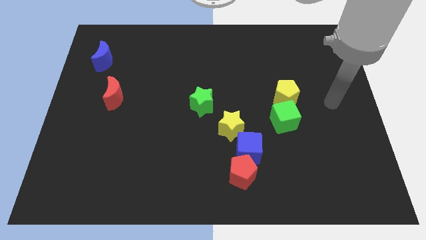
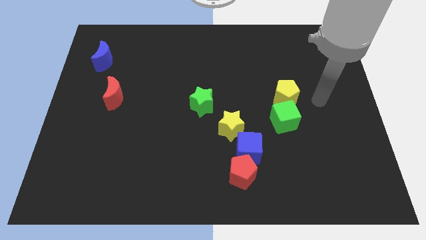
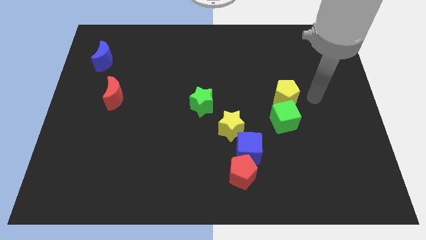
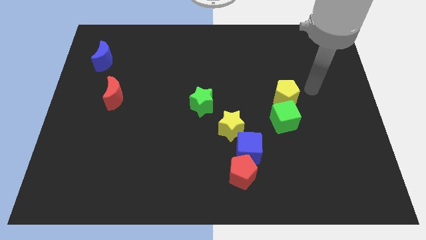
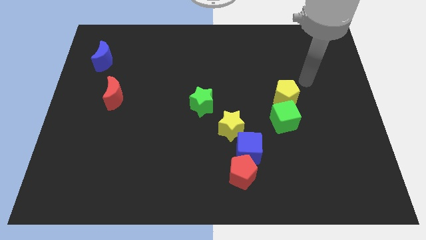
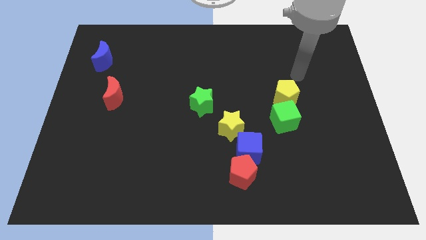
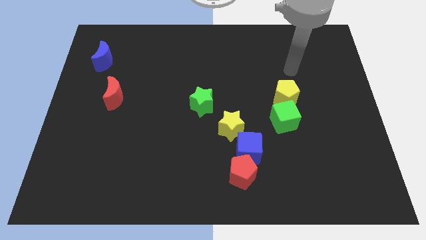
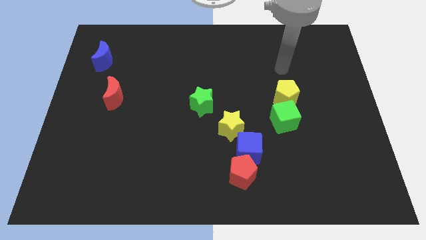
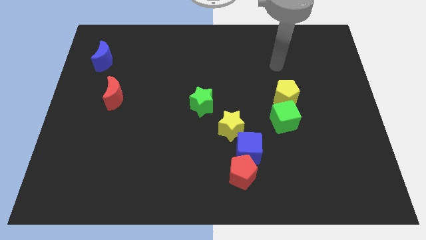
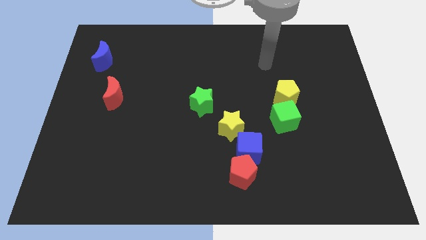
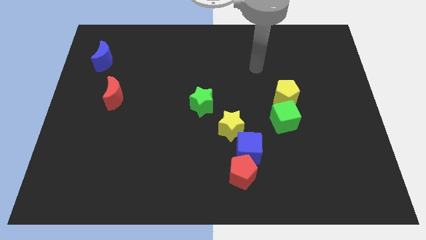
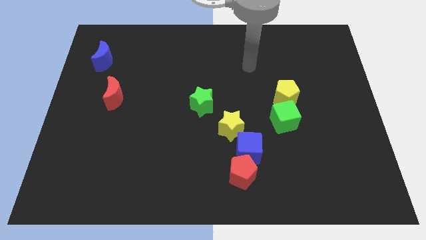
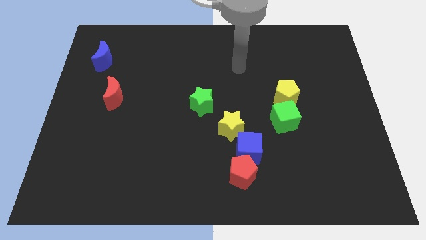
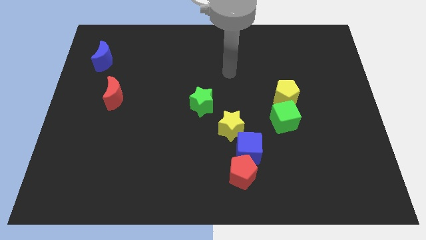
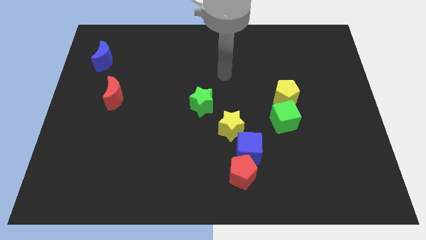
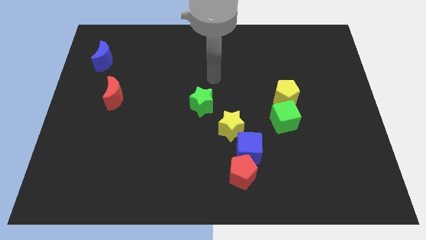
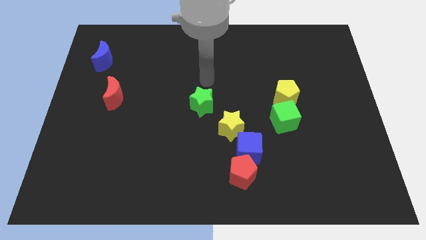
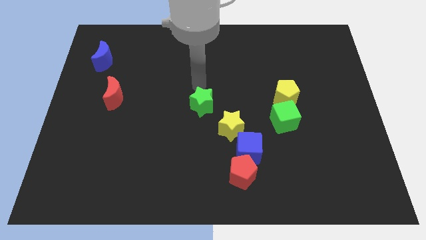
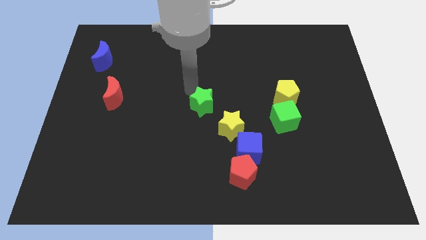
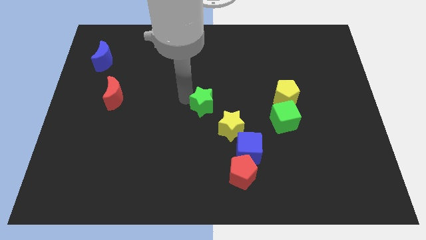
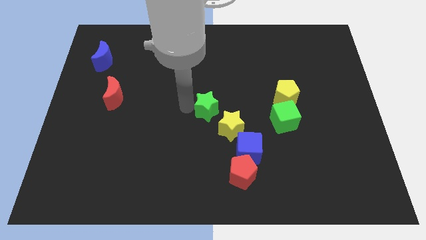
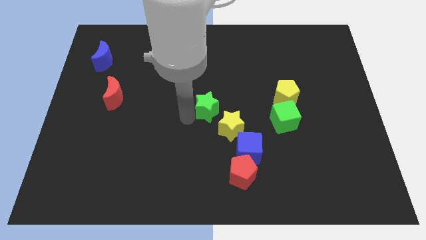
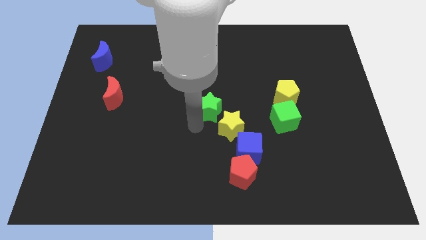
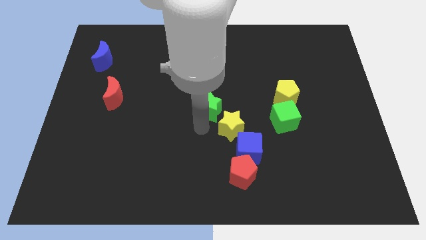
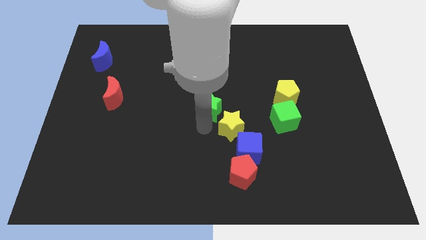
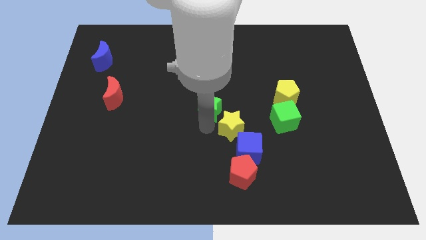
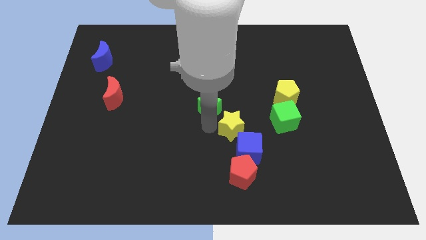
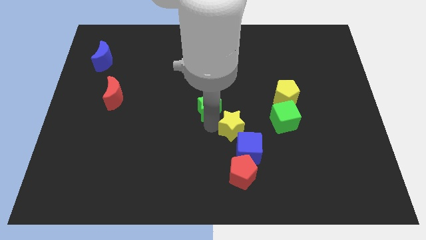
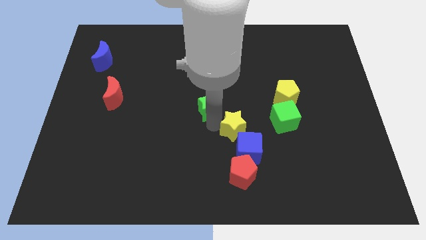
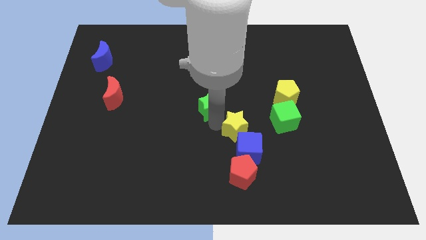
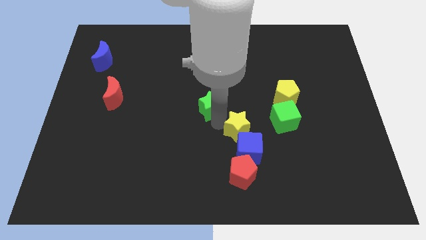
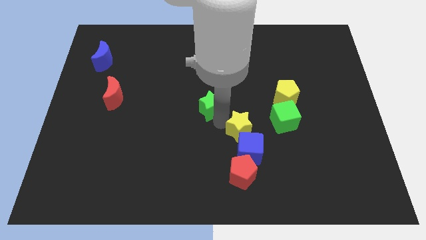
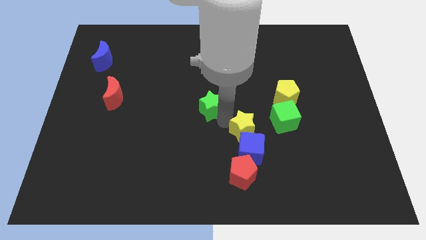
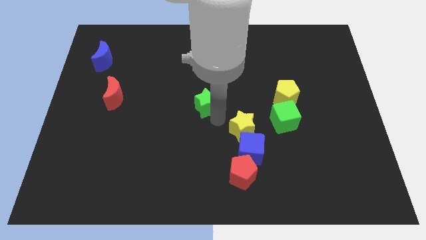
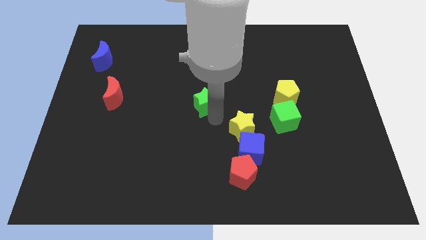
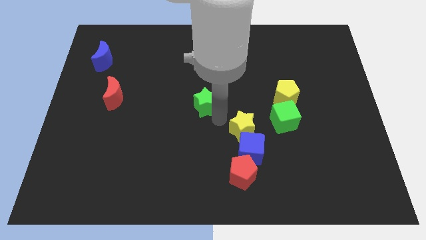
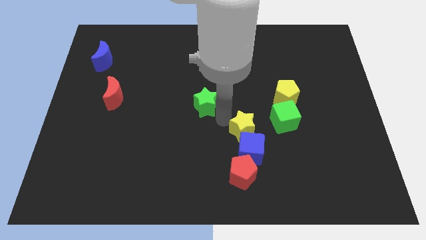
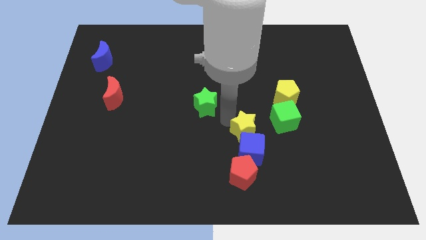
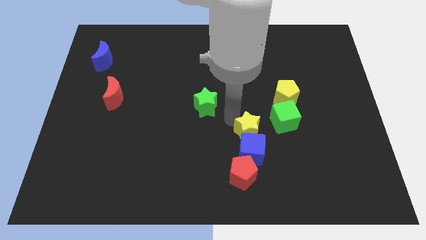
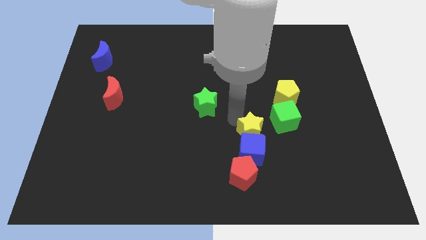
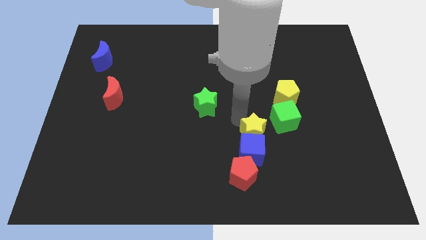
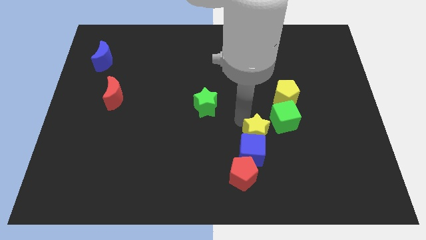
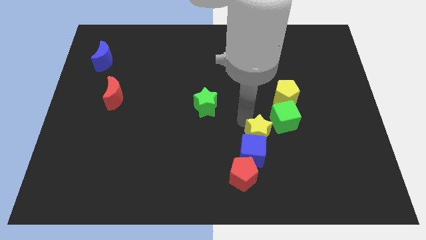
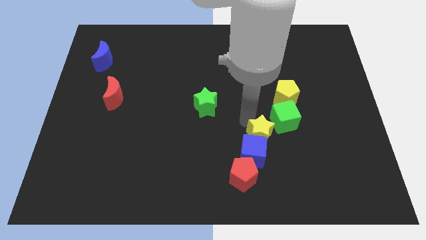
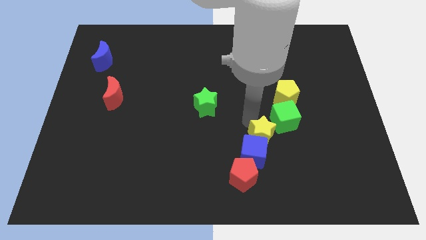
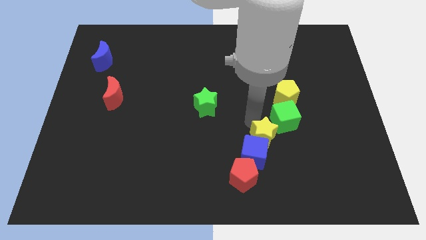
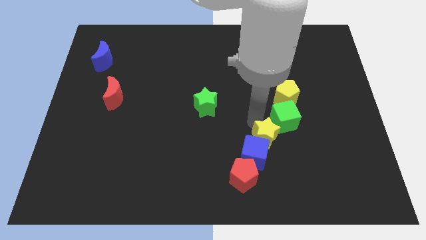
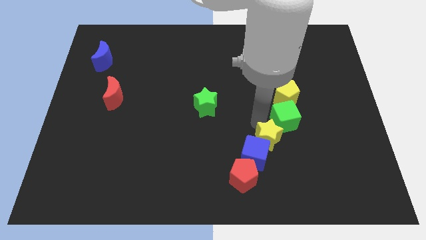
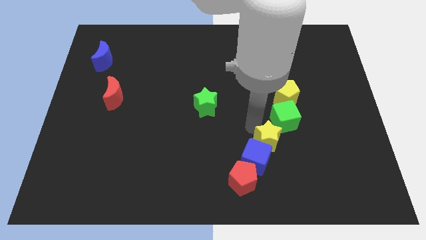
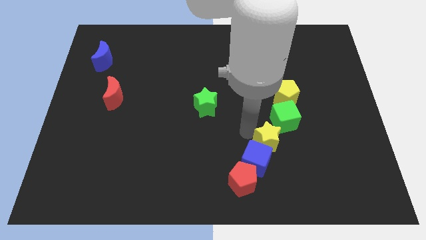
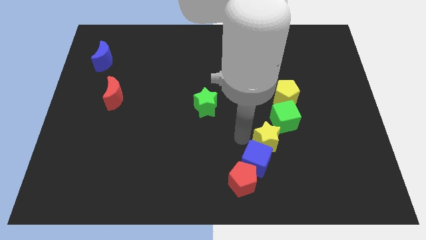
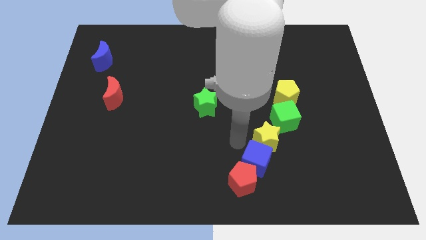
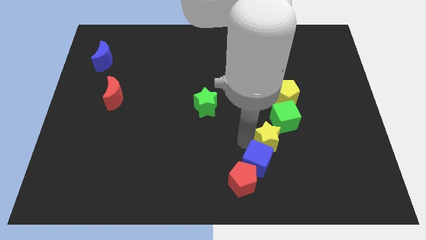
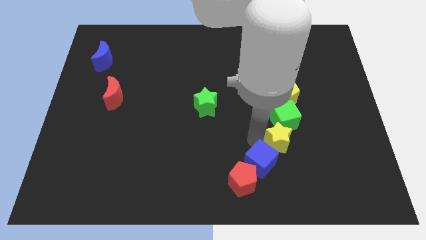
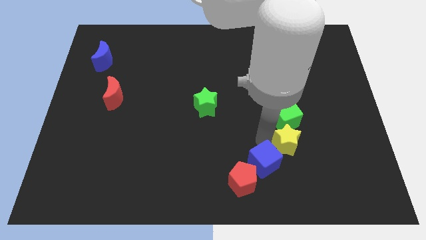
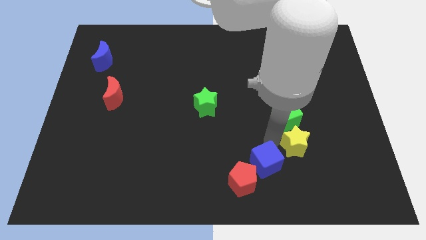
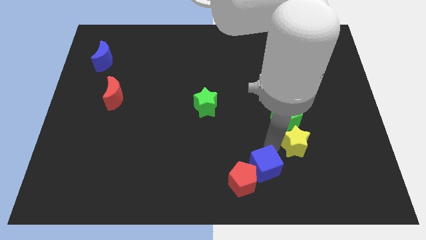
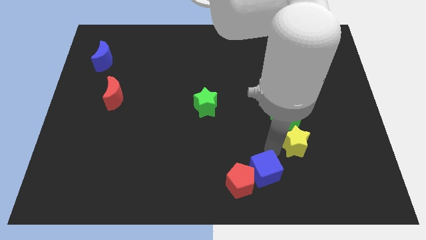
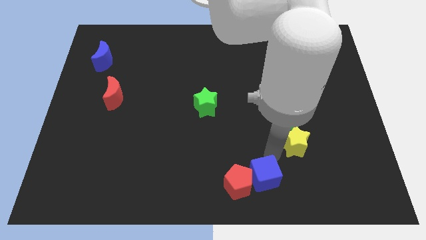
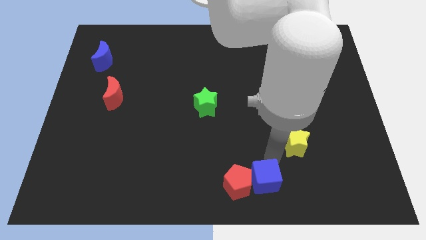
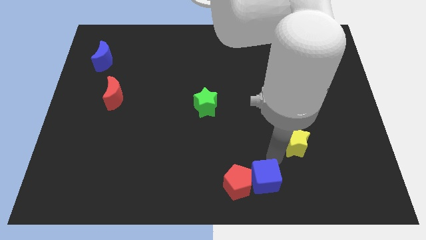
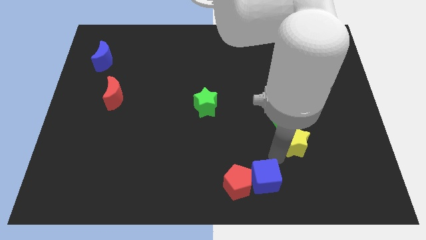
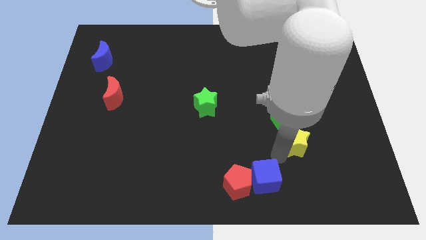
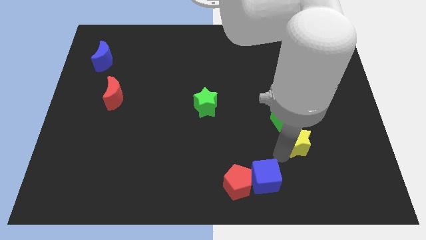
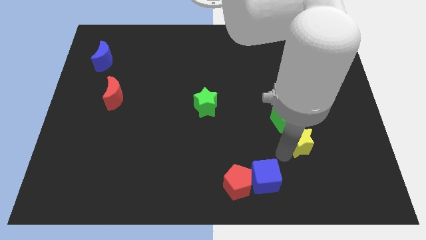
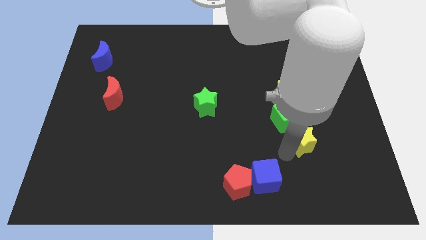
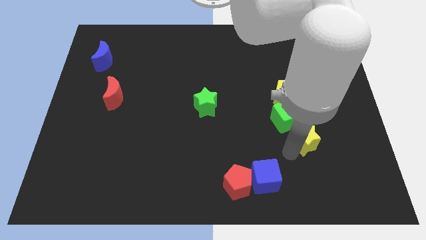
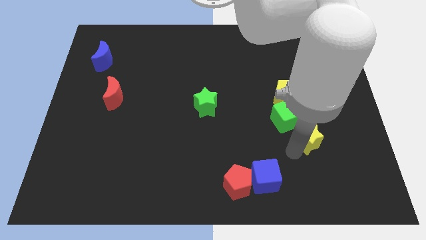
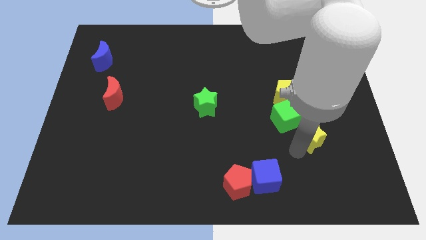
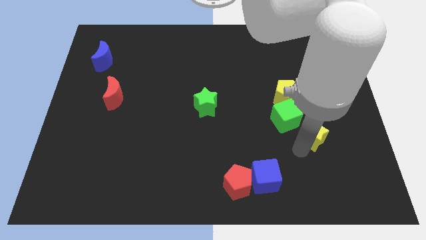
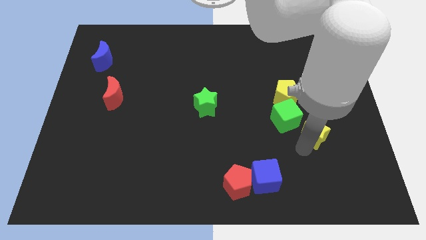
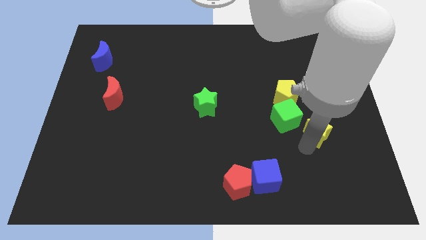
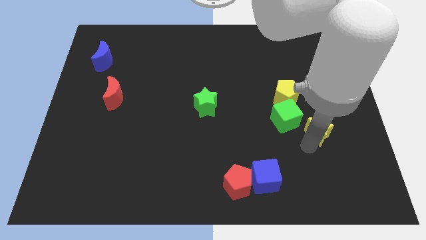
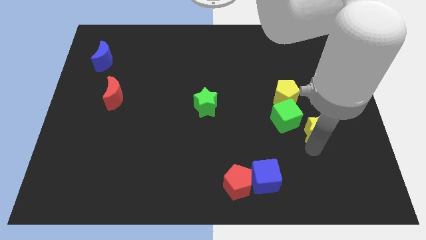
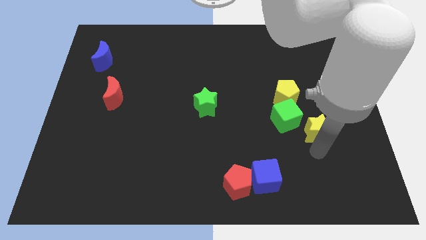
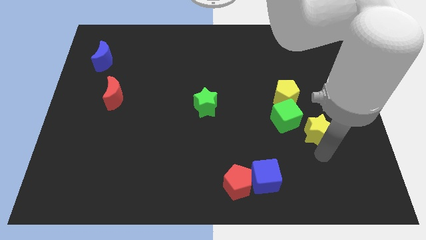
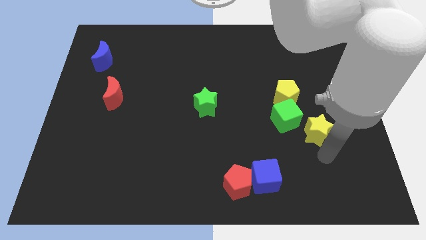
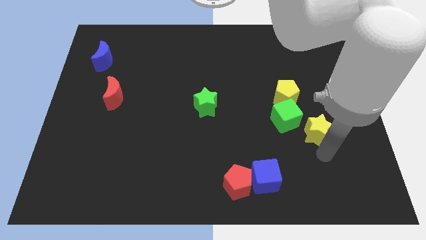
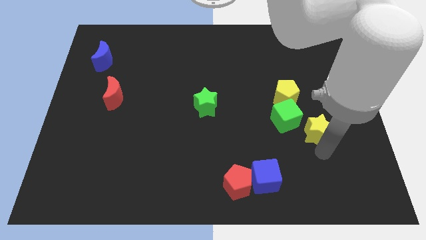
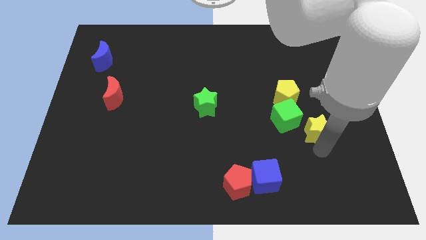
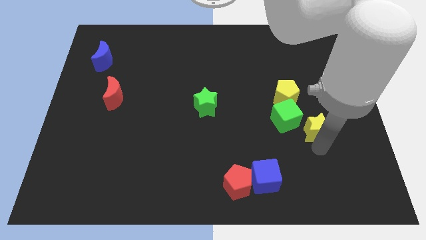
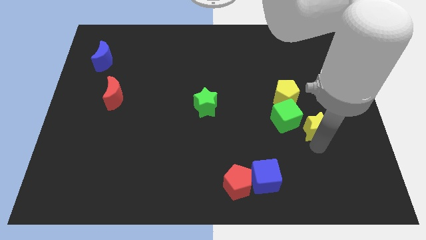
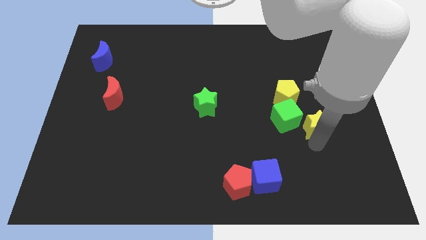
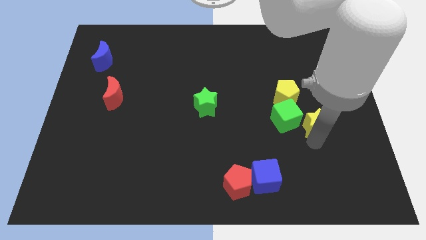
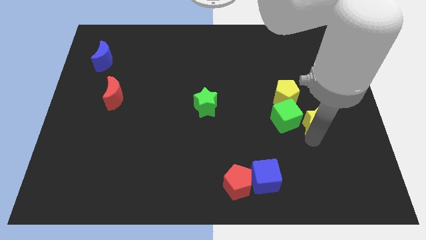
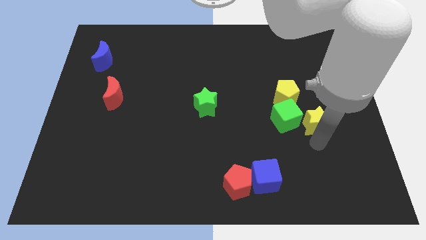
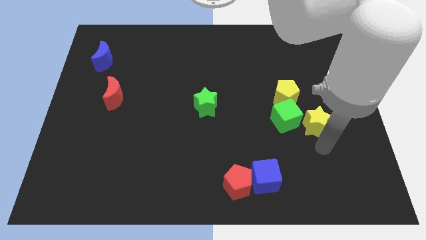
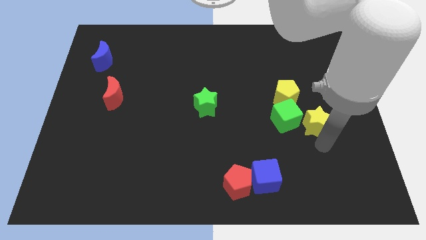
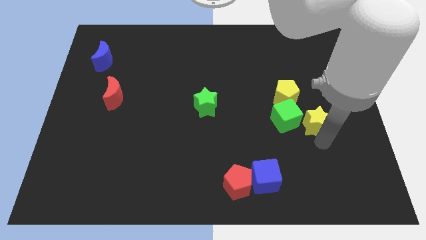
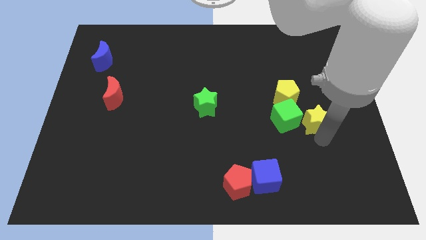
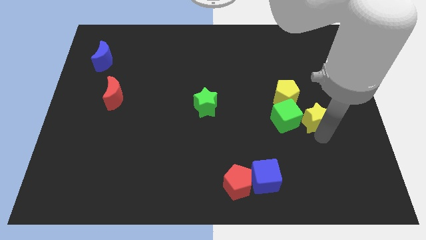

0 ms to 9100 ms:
push the yellow star to the top right of the green cube
